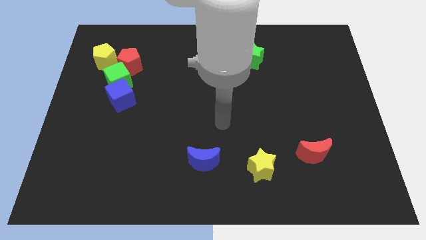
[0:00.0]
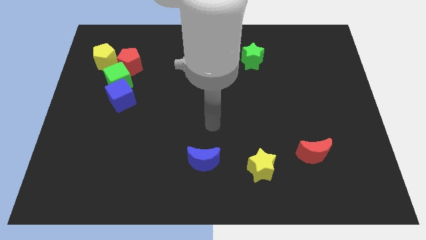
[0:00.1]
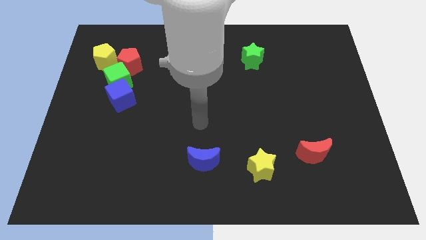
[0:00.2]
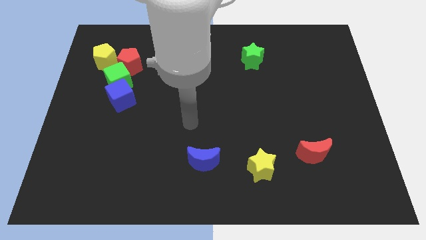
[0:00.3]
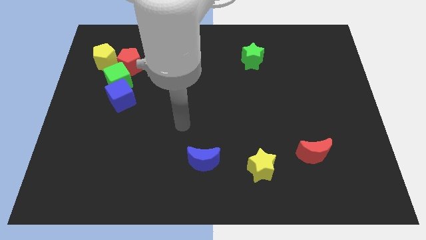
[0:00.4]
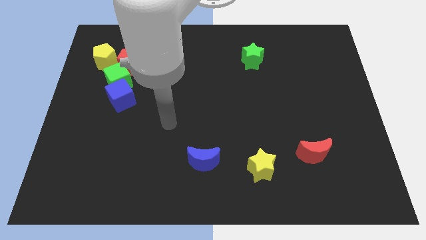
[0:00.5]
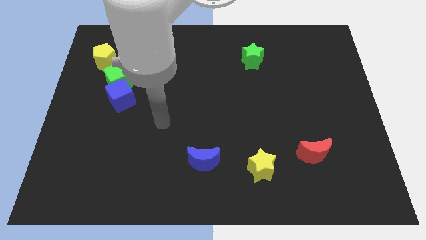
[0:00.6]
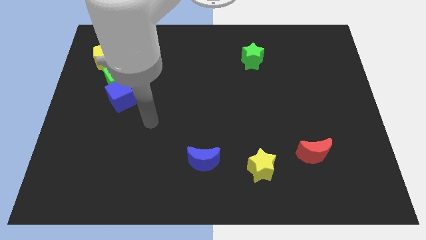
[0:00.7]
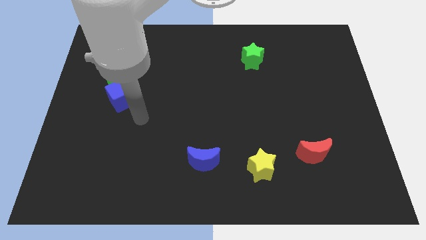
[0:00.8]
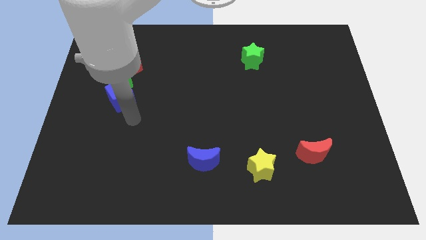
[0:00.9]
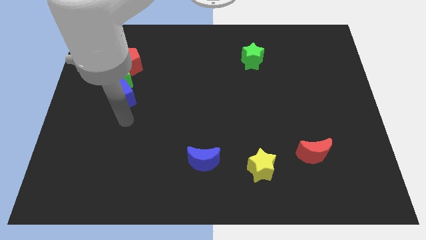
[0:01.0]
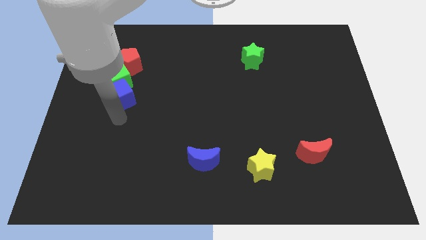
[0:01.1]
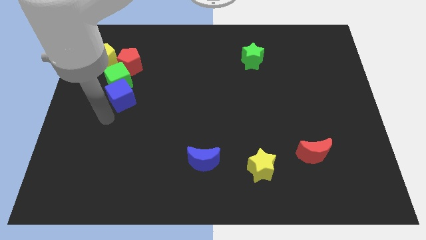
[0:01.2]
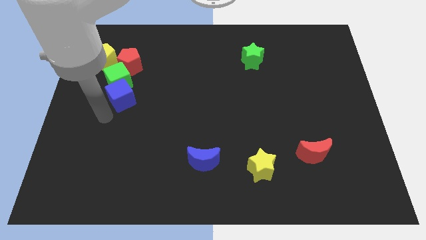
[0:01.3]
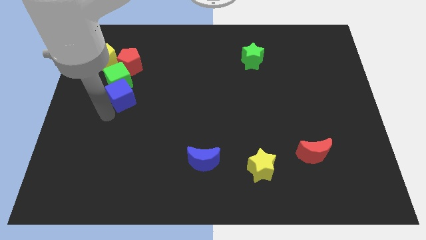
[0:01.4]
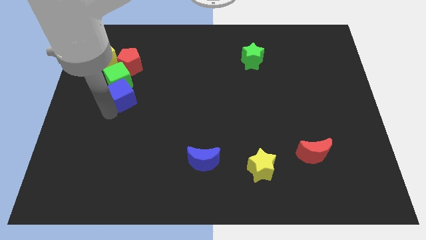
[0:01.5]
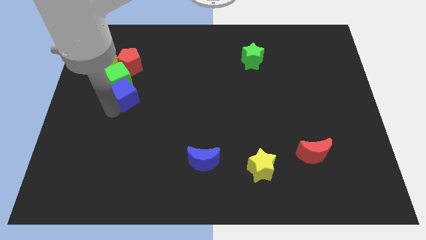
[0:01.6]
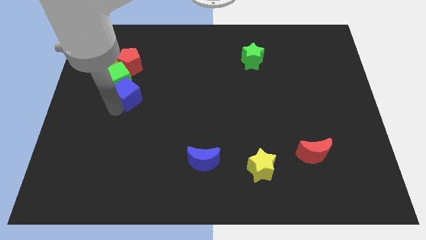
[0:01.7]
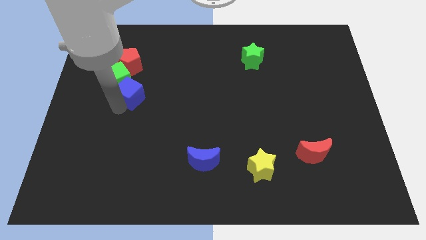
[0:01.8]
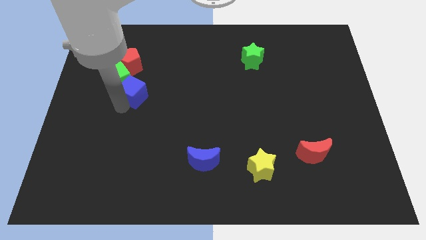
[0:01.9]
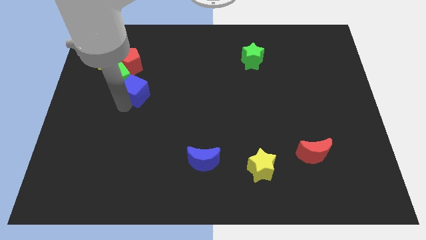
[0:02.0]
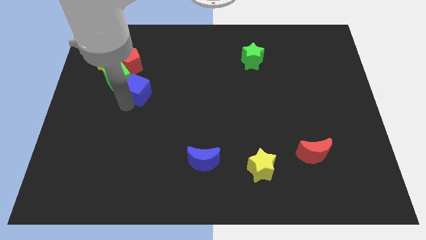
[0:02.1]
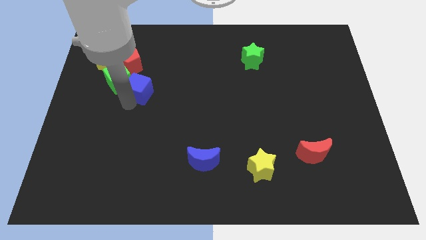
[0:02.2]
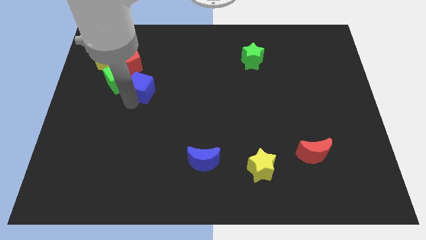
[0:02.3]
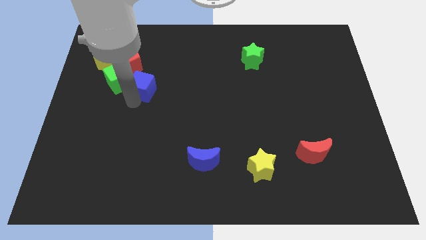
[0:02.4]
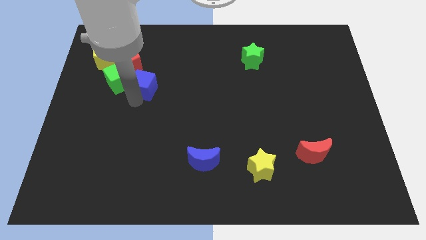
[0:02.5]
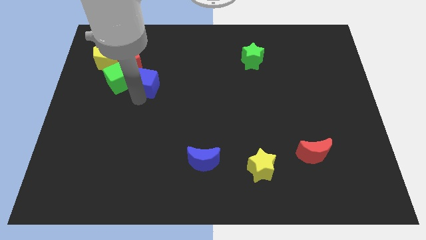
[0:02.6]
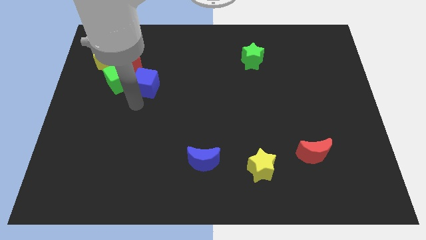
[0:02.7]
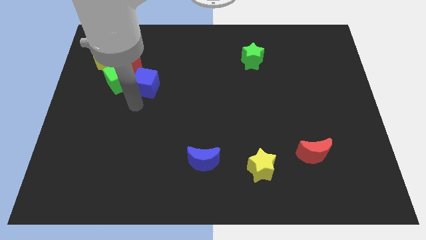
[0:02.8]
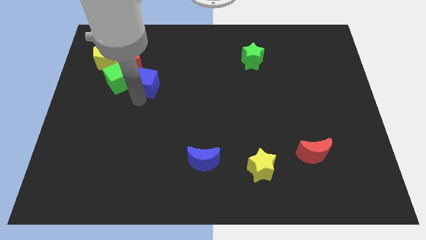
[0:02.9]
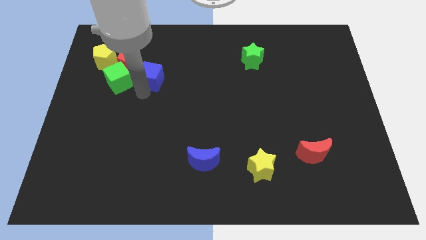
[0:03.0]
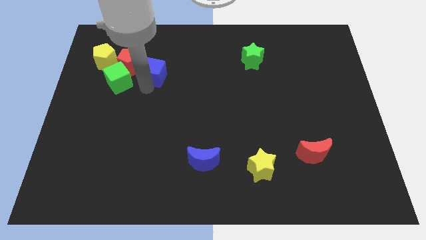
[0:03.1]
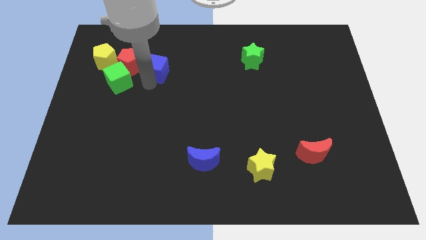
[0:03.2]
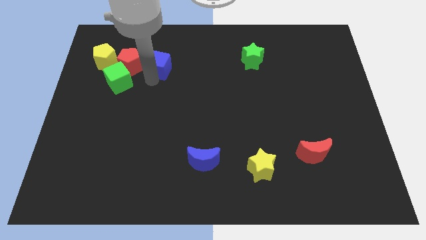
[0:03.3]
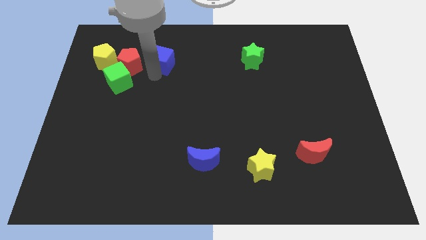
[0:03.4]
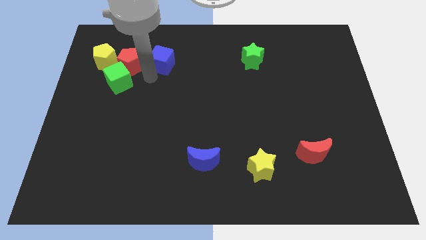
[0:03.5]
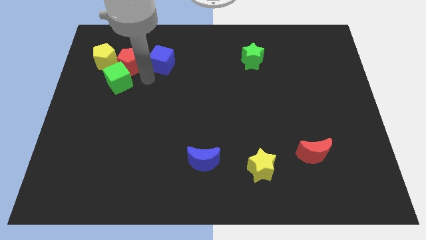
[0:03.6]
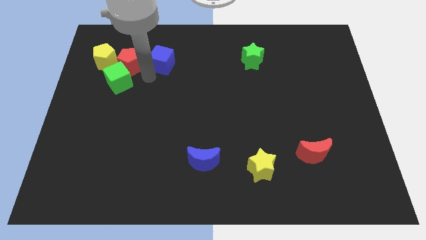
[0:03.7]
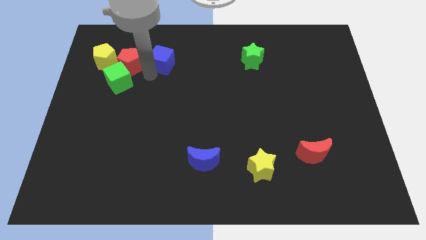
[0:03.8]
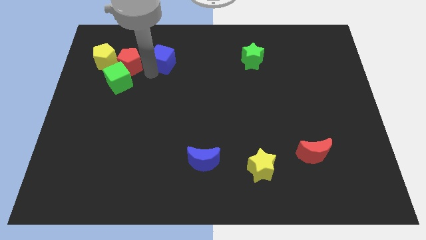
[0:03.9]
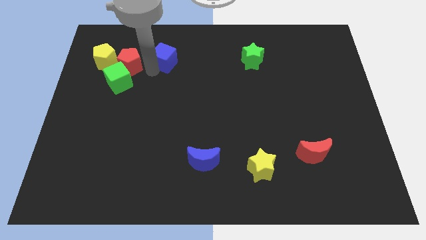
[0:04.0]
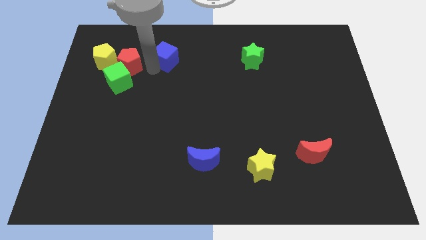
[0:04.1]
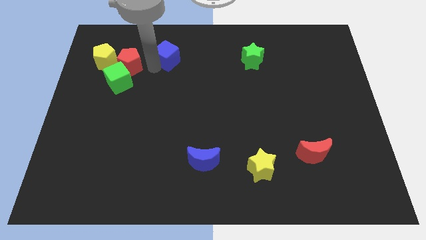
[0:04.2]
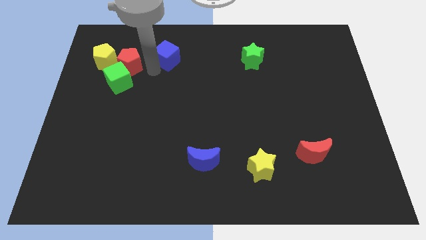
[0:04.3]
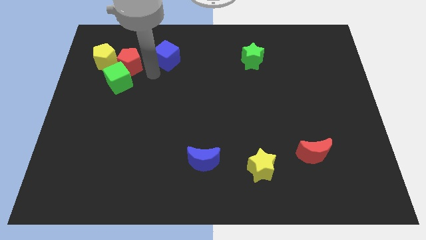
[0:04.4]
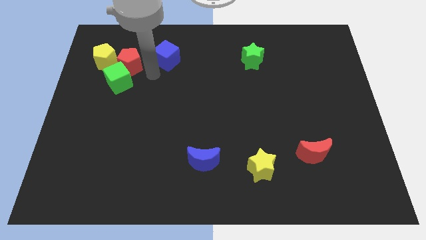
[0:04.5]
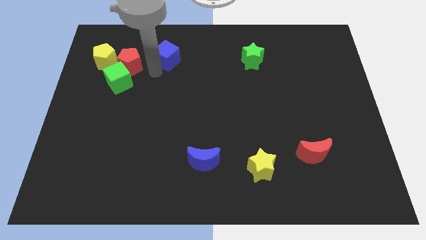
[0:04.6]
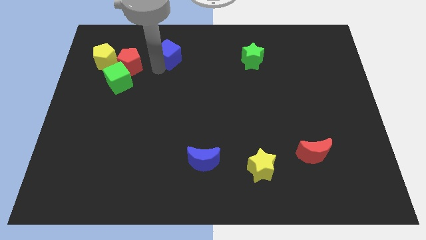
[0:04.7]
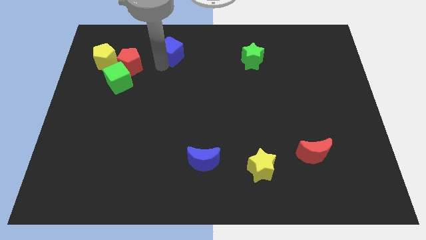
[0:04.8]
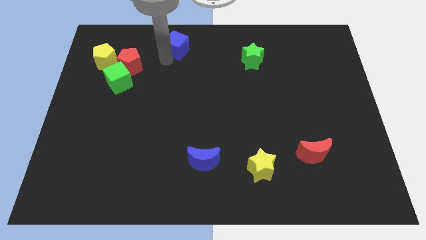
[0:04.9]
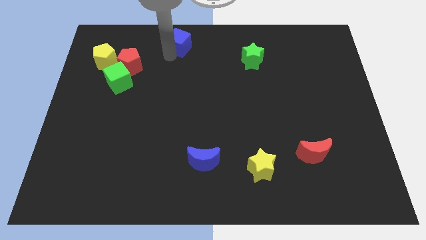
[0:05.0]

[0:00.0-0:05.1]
put the blue cube to the towards your base

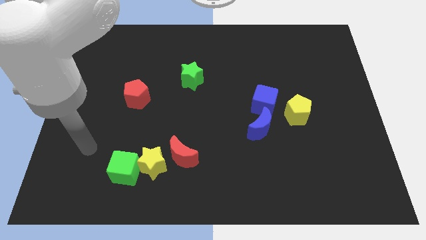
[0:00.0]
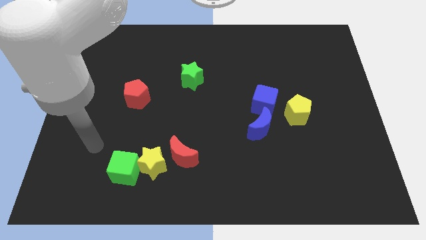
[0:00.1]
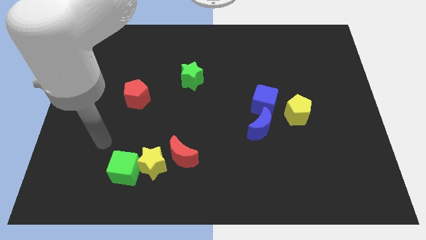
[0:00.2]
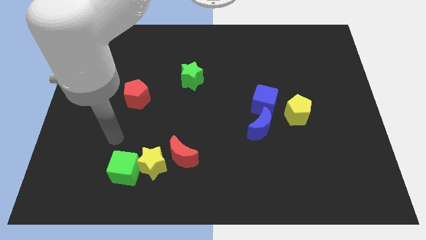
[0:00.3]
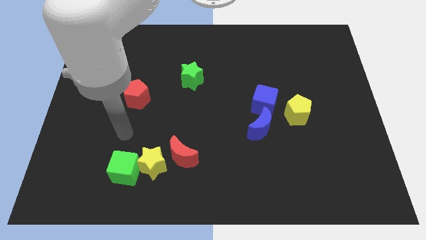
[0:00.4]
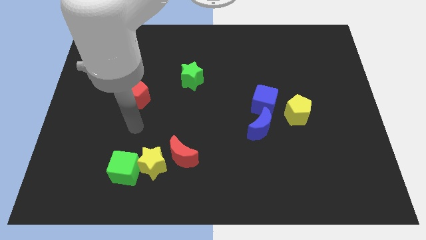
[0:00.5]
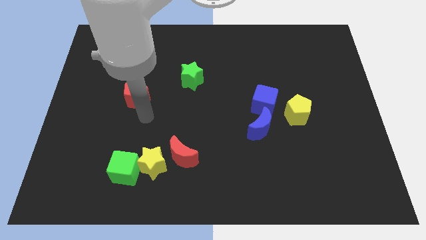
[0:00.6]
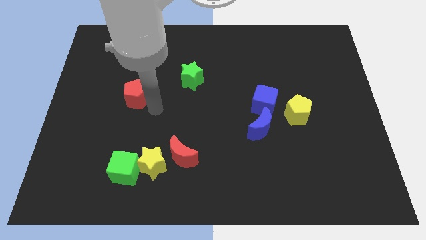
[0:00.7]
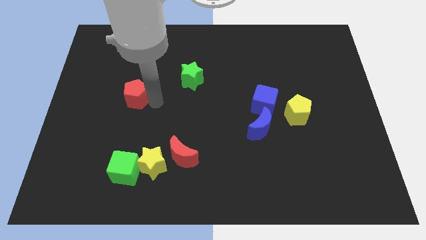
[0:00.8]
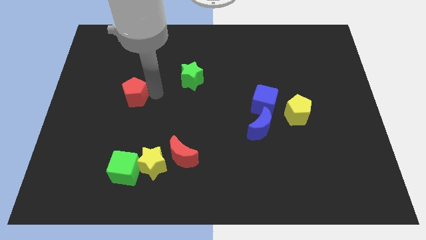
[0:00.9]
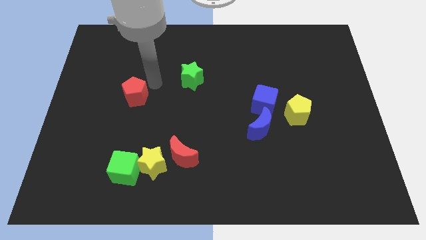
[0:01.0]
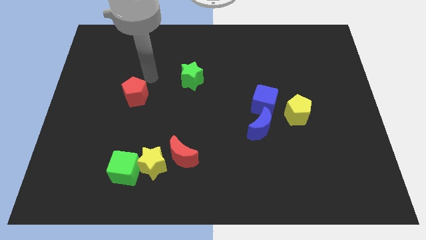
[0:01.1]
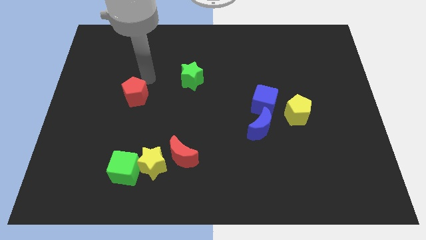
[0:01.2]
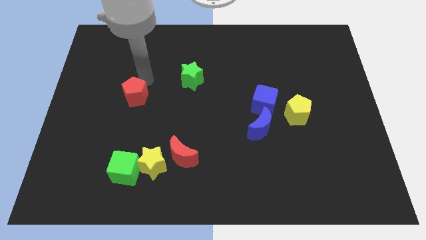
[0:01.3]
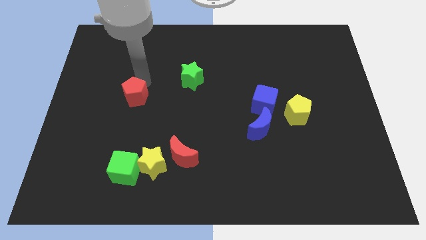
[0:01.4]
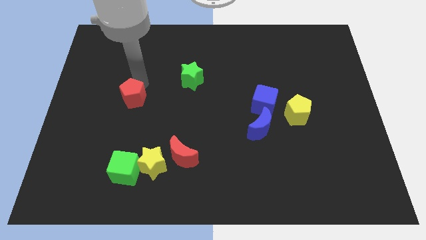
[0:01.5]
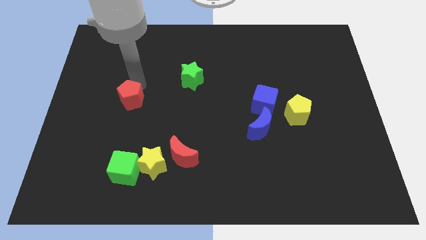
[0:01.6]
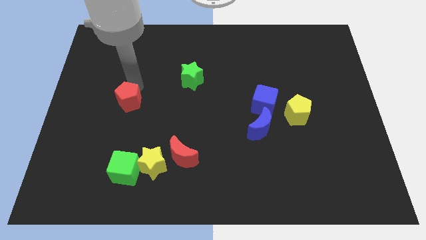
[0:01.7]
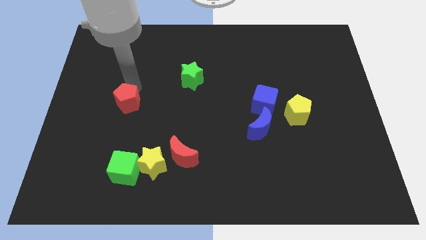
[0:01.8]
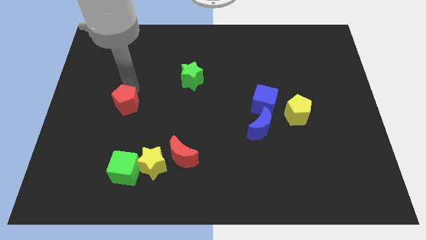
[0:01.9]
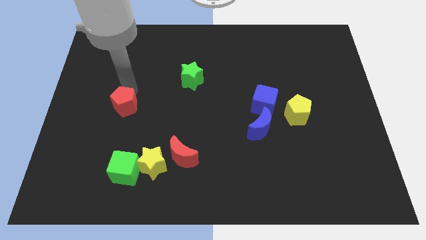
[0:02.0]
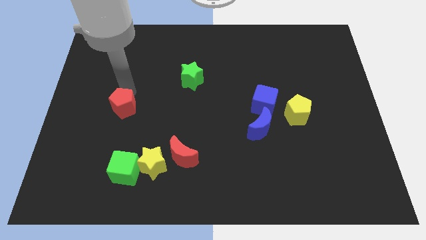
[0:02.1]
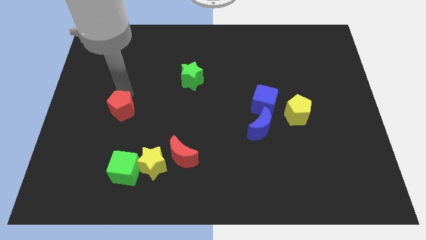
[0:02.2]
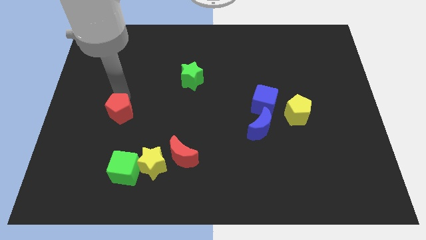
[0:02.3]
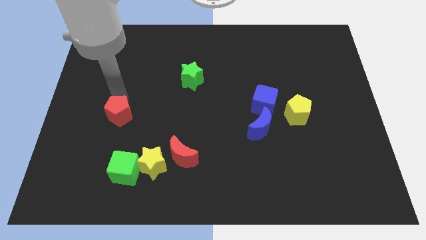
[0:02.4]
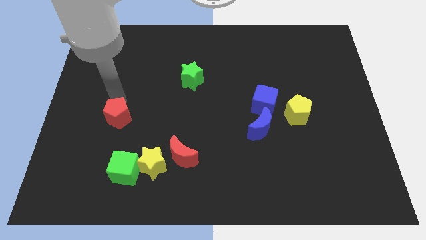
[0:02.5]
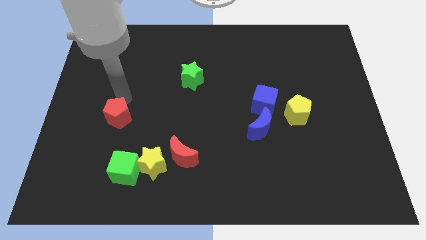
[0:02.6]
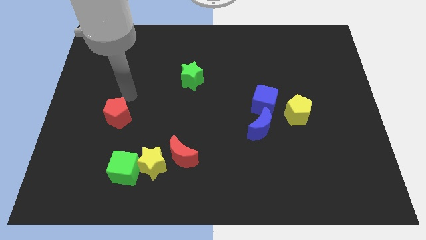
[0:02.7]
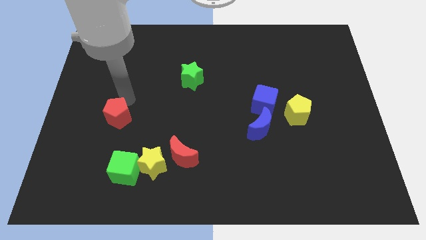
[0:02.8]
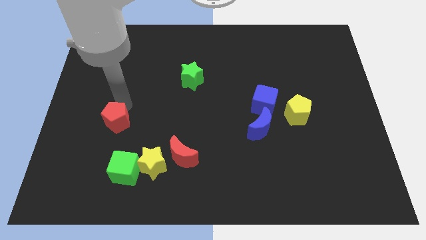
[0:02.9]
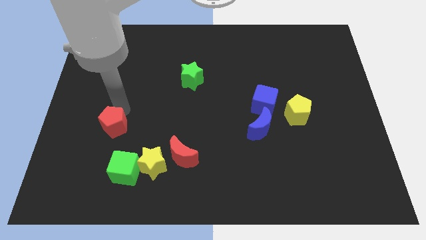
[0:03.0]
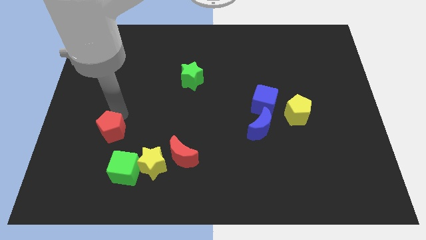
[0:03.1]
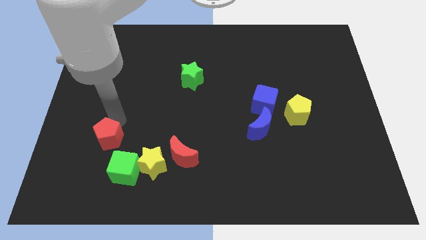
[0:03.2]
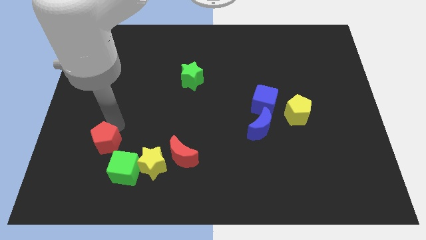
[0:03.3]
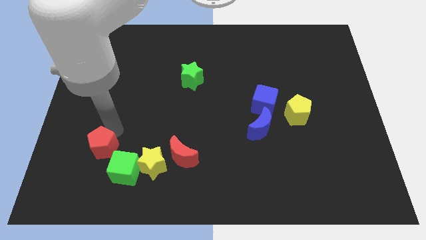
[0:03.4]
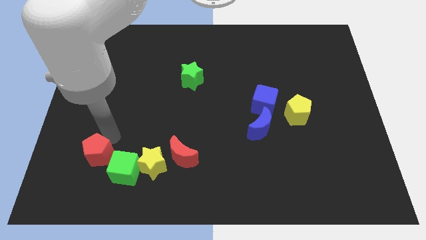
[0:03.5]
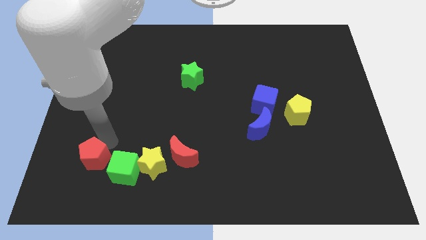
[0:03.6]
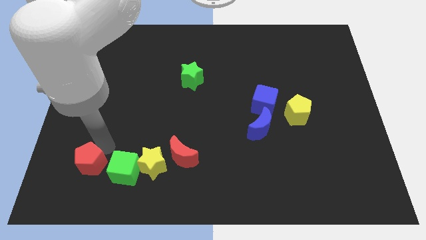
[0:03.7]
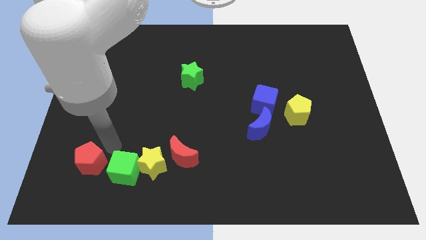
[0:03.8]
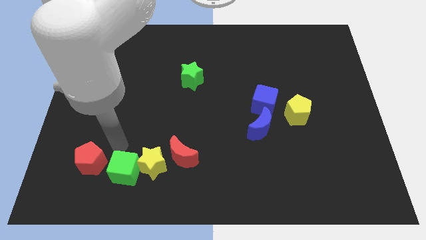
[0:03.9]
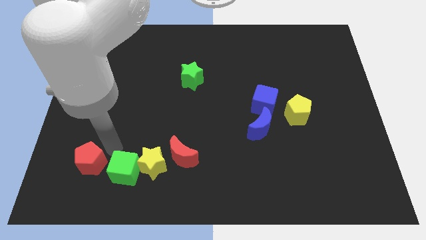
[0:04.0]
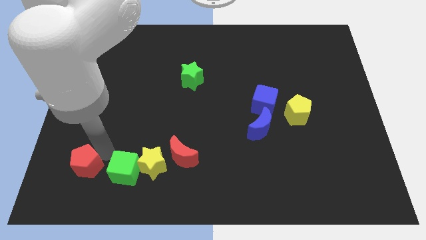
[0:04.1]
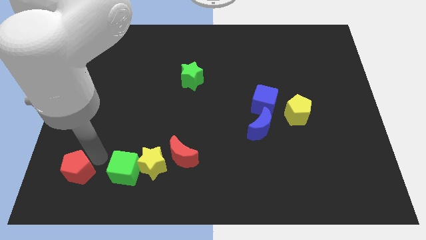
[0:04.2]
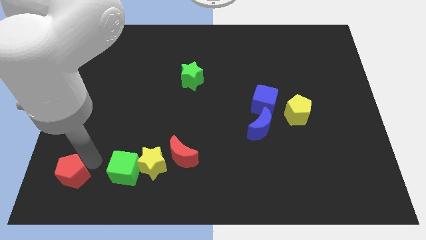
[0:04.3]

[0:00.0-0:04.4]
push the red pentagon to the bottom left corner
